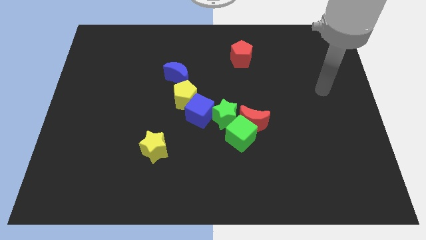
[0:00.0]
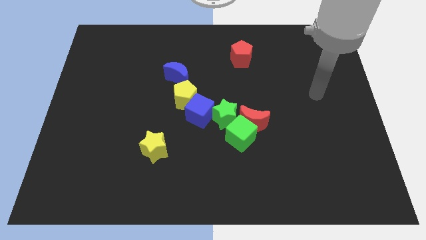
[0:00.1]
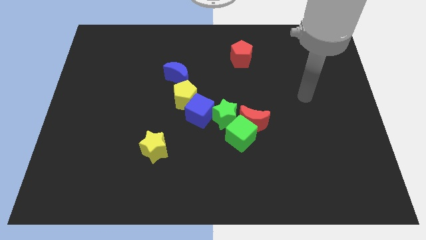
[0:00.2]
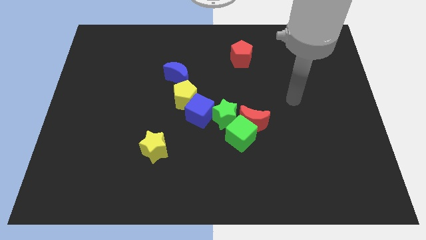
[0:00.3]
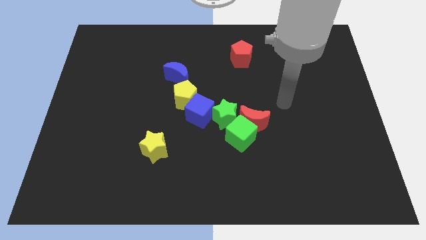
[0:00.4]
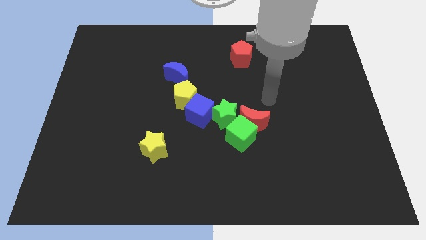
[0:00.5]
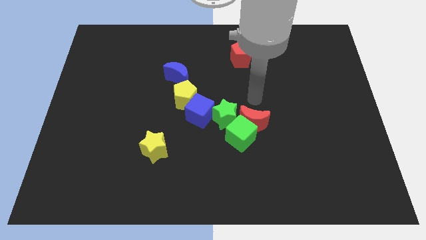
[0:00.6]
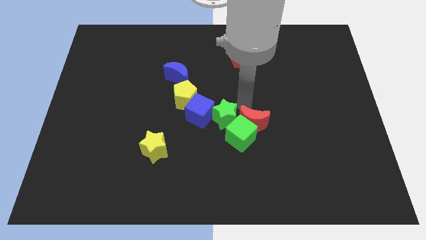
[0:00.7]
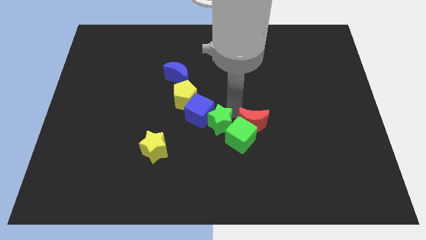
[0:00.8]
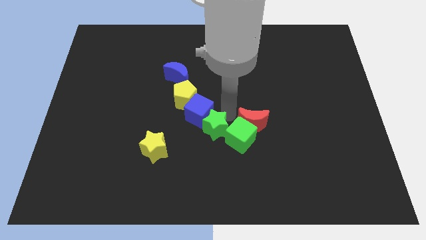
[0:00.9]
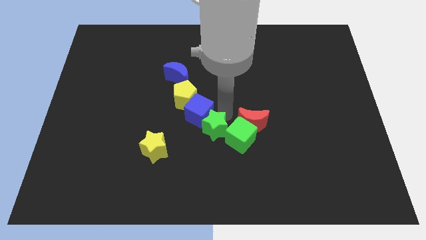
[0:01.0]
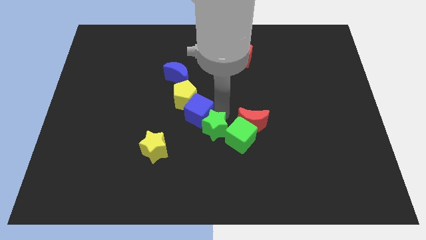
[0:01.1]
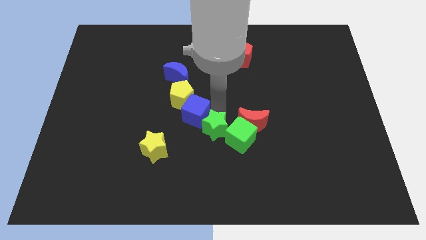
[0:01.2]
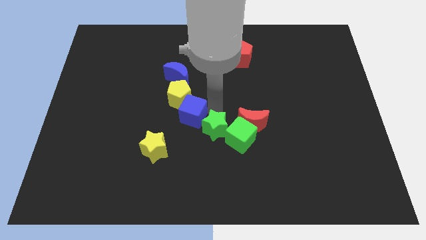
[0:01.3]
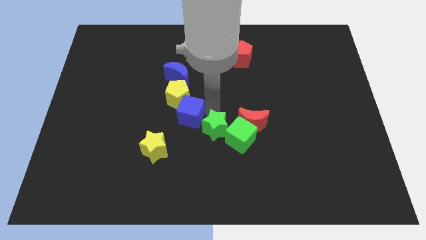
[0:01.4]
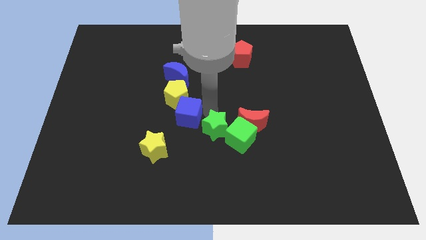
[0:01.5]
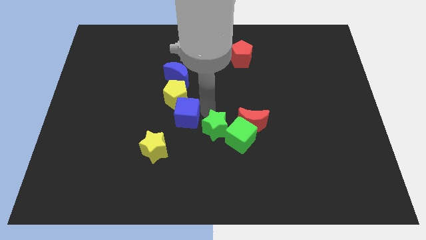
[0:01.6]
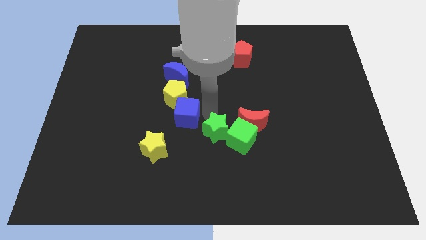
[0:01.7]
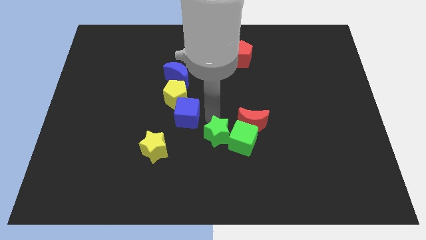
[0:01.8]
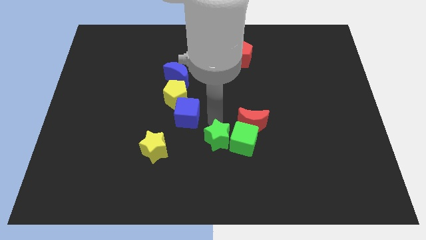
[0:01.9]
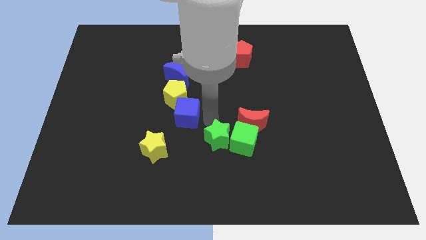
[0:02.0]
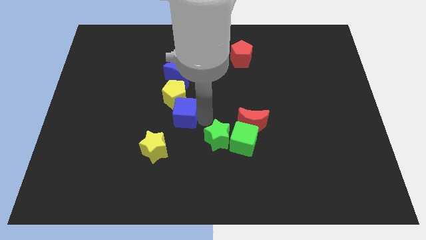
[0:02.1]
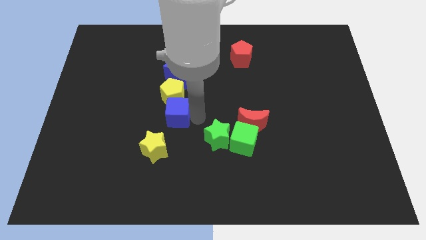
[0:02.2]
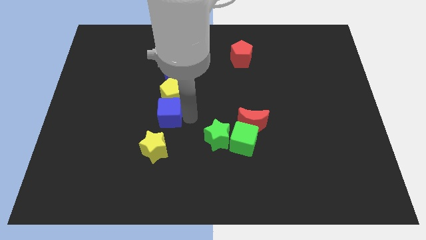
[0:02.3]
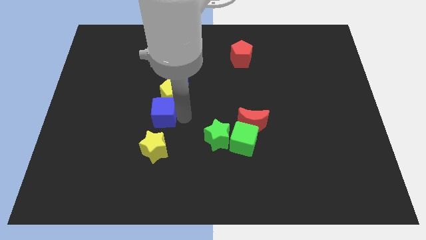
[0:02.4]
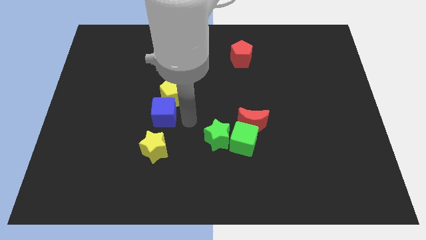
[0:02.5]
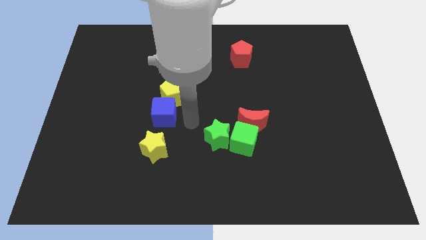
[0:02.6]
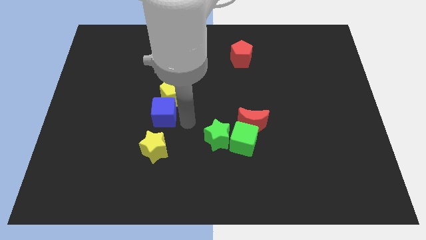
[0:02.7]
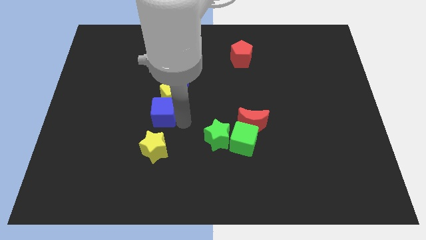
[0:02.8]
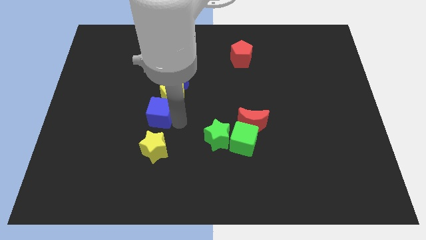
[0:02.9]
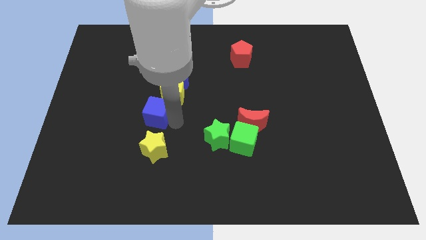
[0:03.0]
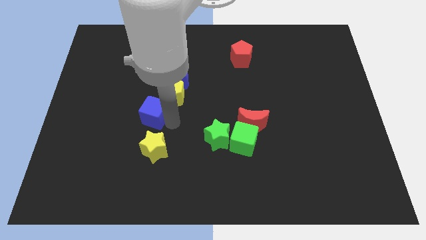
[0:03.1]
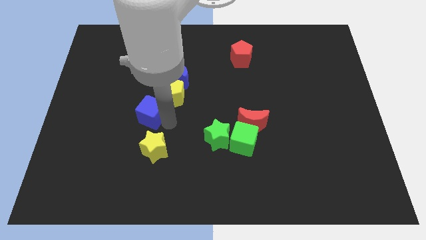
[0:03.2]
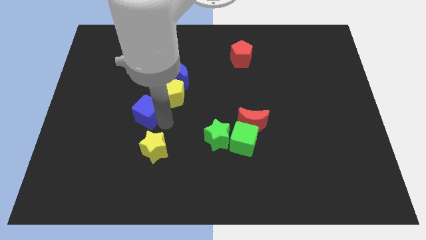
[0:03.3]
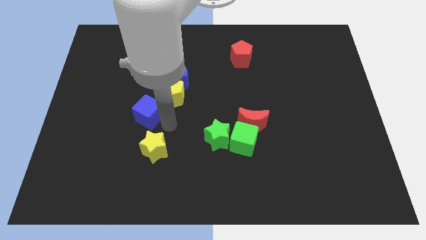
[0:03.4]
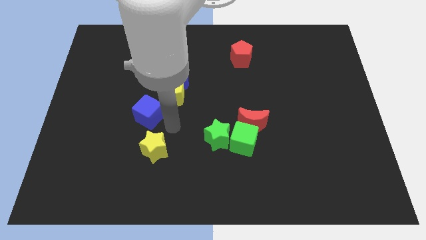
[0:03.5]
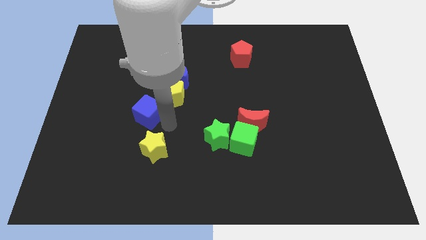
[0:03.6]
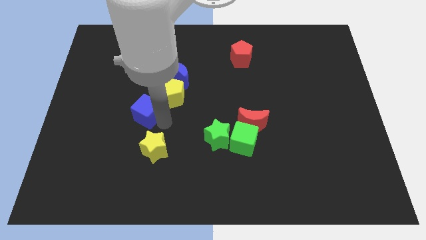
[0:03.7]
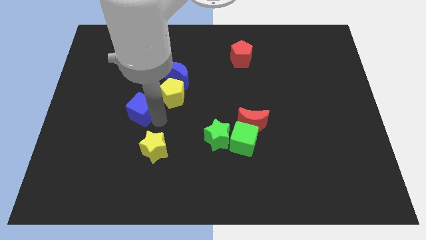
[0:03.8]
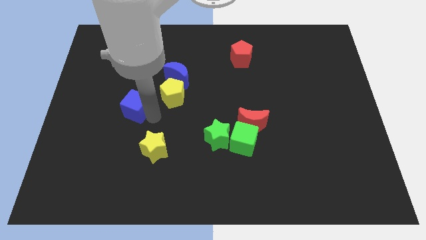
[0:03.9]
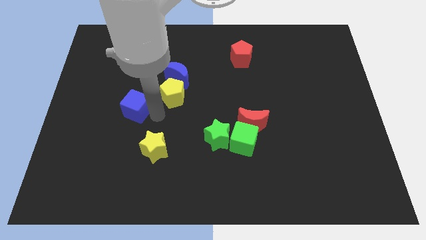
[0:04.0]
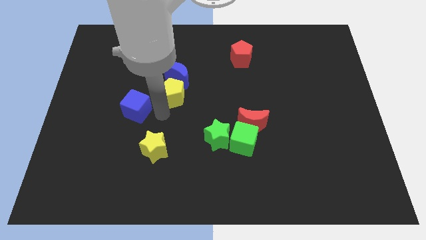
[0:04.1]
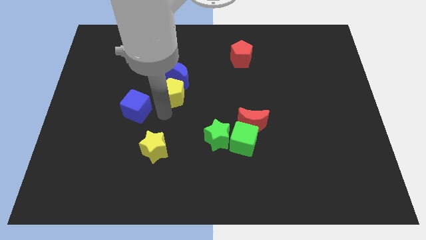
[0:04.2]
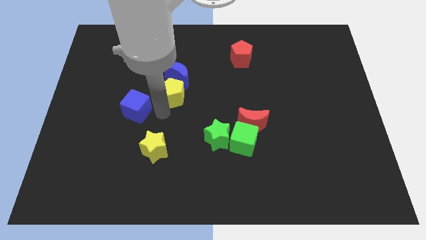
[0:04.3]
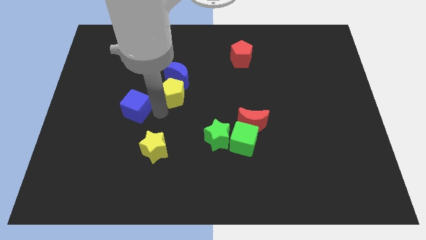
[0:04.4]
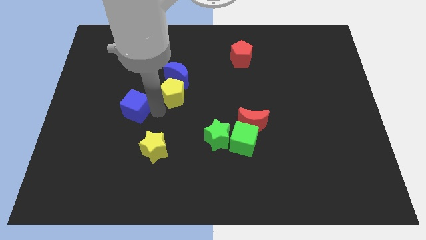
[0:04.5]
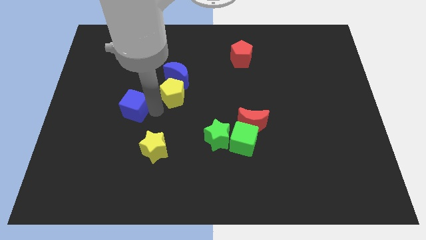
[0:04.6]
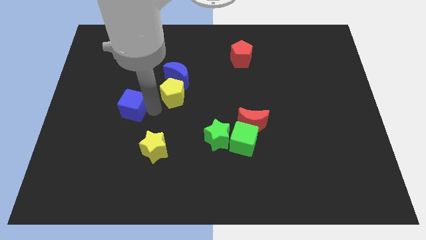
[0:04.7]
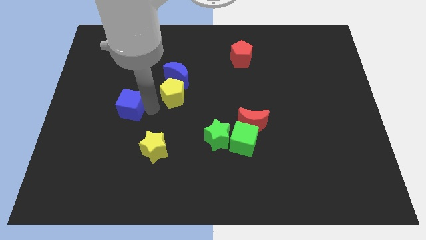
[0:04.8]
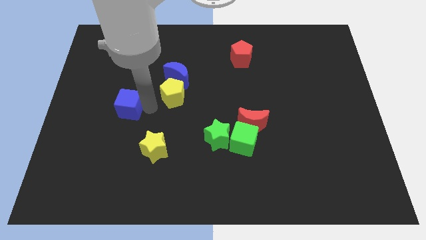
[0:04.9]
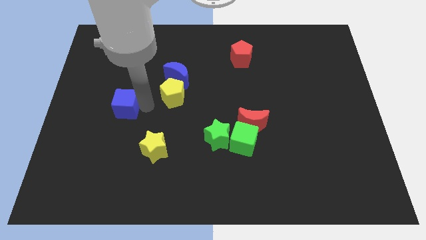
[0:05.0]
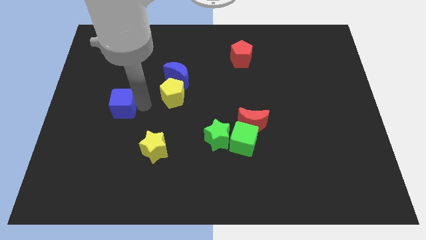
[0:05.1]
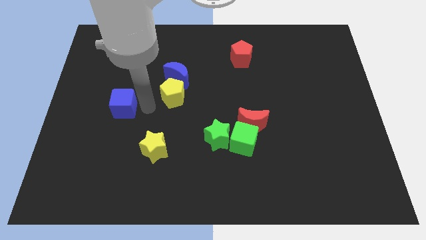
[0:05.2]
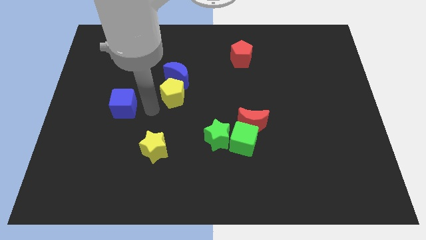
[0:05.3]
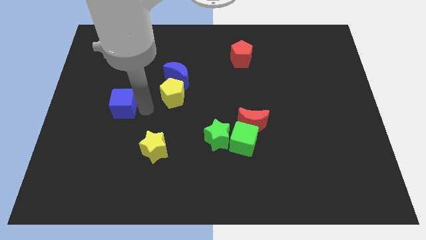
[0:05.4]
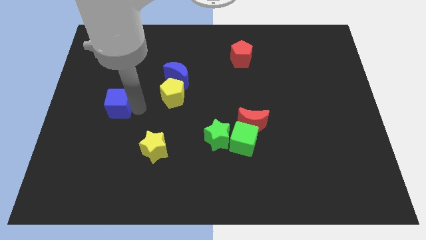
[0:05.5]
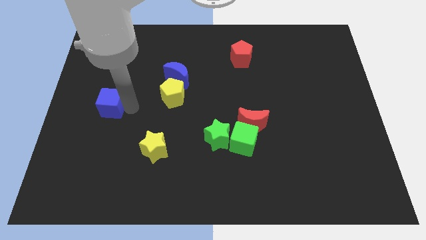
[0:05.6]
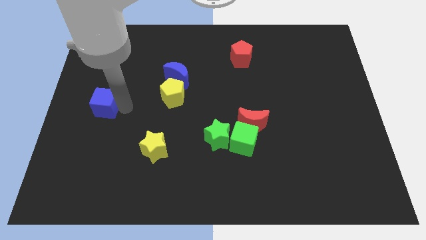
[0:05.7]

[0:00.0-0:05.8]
put the blue cube to the center left
